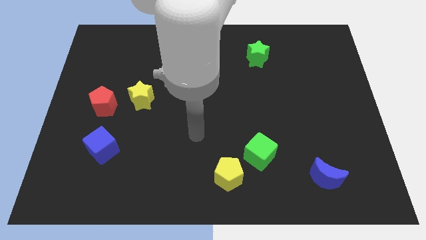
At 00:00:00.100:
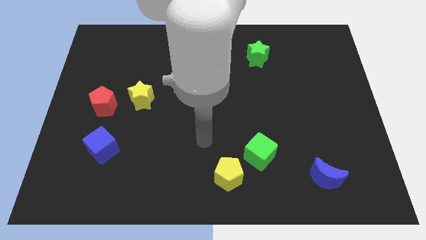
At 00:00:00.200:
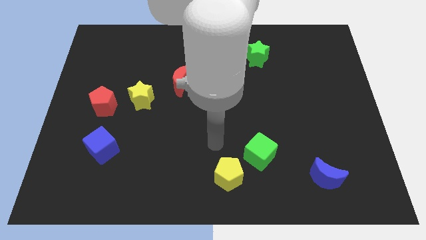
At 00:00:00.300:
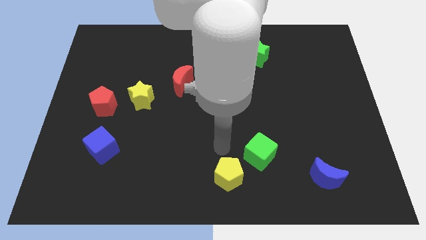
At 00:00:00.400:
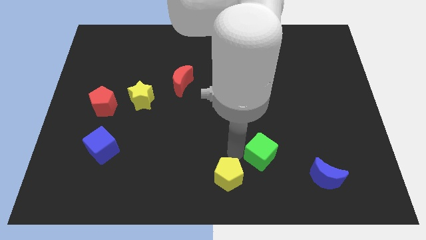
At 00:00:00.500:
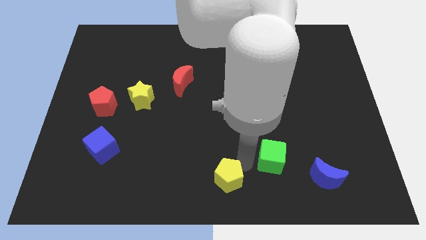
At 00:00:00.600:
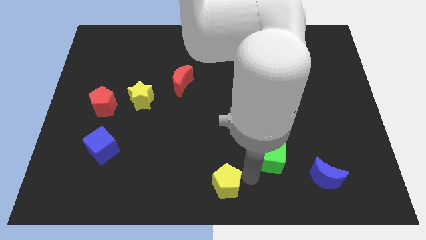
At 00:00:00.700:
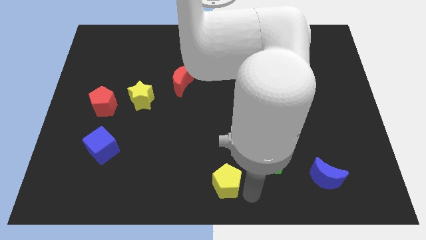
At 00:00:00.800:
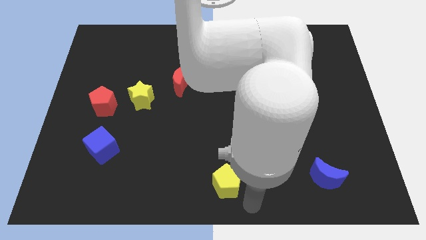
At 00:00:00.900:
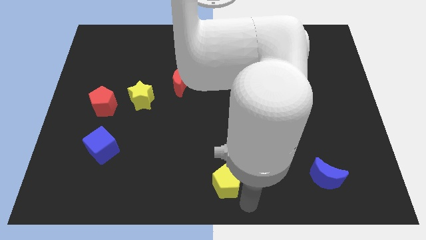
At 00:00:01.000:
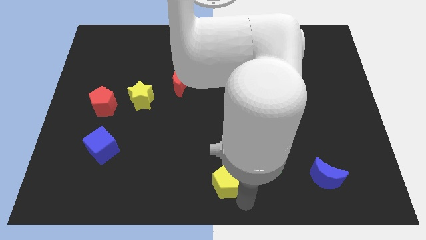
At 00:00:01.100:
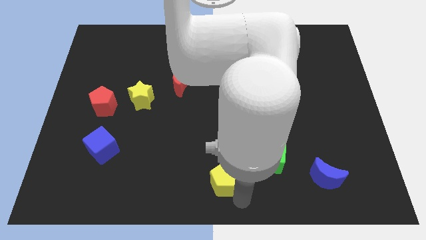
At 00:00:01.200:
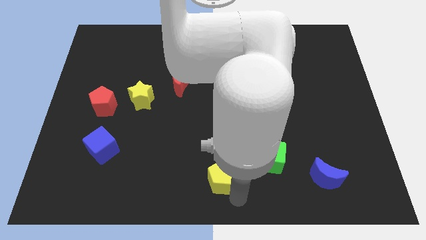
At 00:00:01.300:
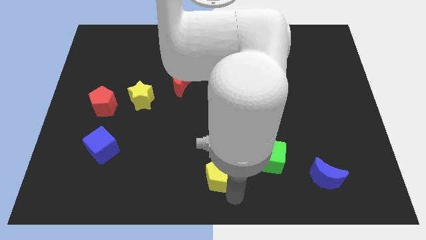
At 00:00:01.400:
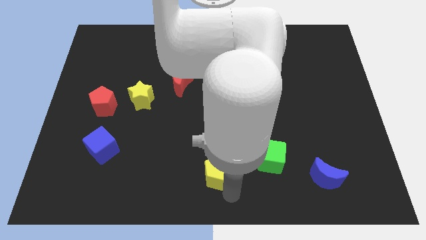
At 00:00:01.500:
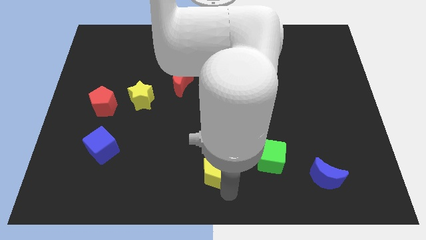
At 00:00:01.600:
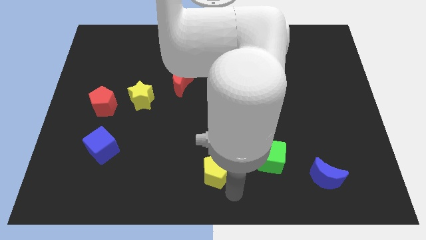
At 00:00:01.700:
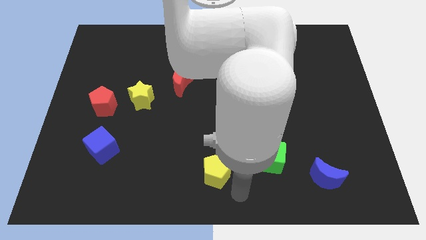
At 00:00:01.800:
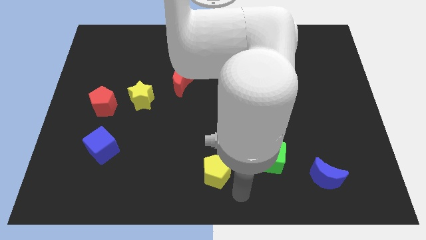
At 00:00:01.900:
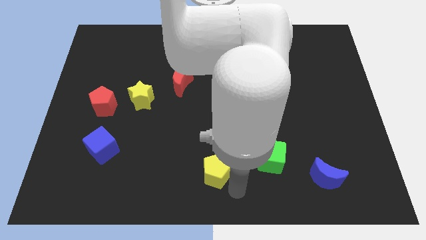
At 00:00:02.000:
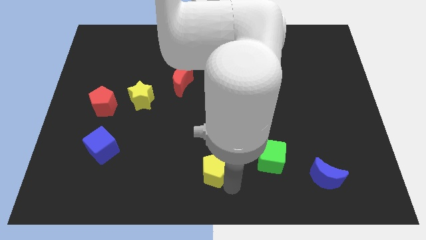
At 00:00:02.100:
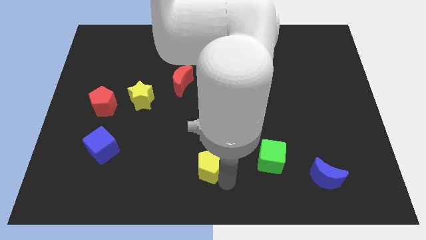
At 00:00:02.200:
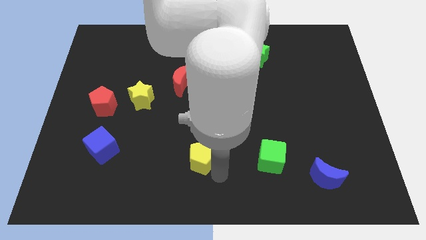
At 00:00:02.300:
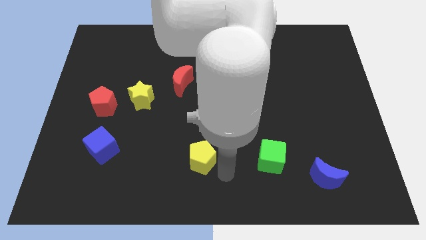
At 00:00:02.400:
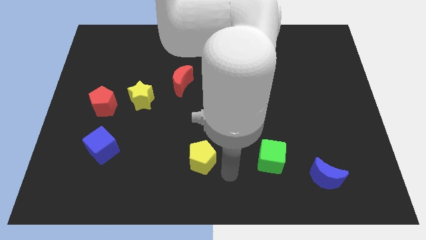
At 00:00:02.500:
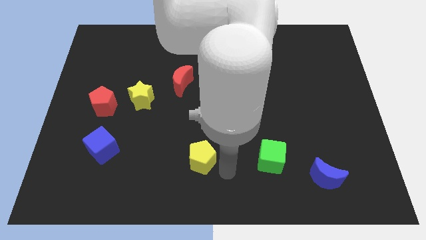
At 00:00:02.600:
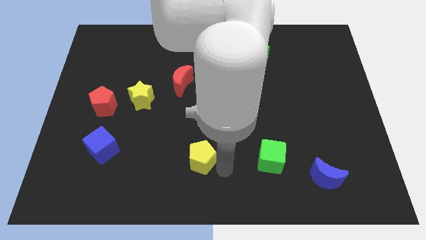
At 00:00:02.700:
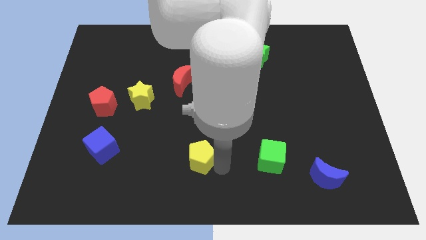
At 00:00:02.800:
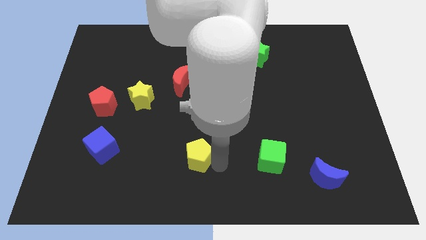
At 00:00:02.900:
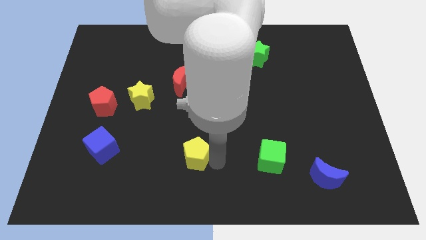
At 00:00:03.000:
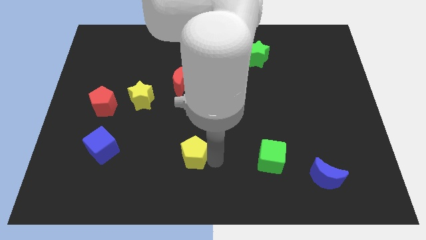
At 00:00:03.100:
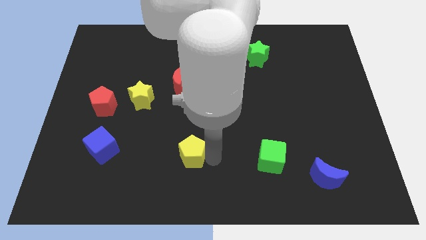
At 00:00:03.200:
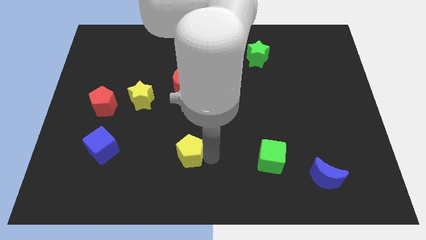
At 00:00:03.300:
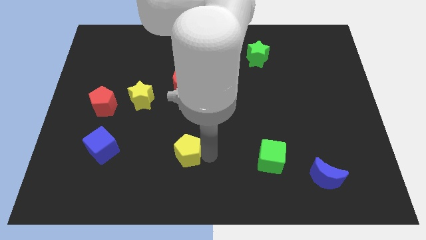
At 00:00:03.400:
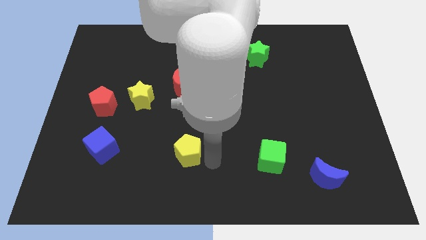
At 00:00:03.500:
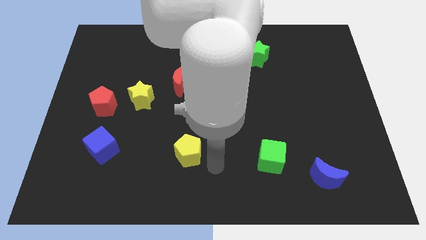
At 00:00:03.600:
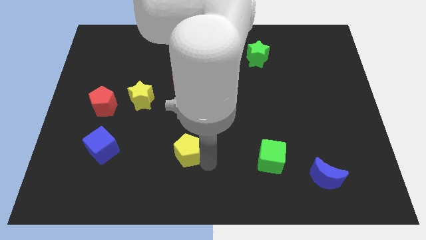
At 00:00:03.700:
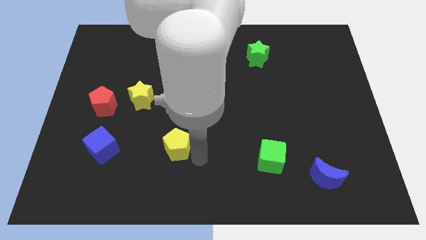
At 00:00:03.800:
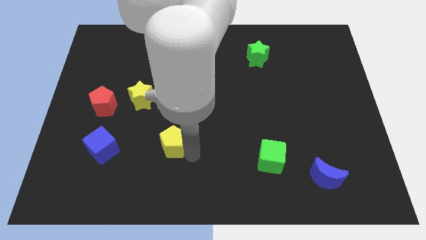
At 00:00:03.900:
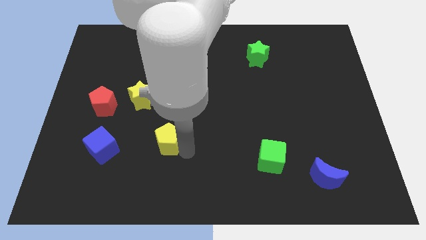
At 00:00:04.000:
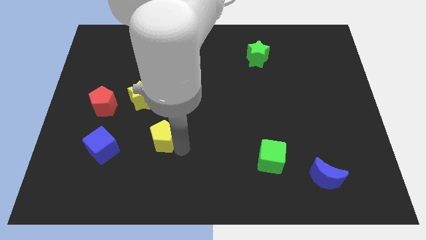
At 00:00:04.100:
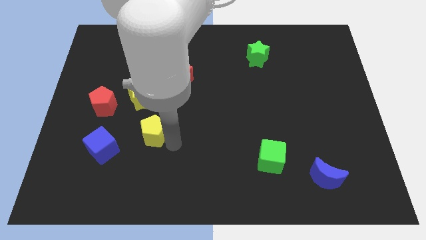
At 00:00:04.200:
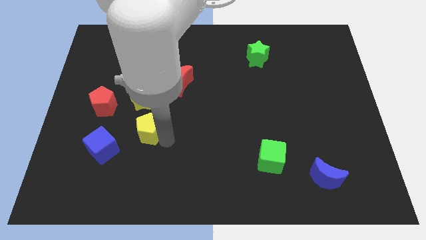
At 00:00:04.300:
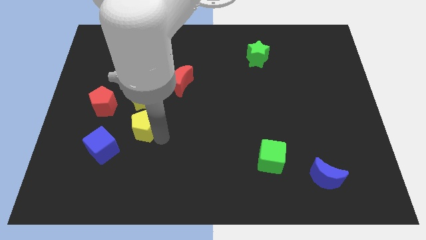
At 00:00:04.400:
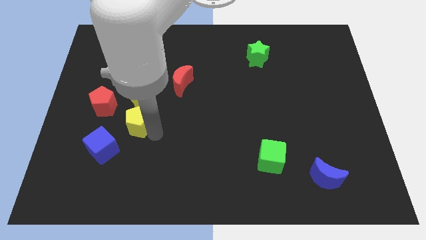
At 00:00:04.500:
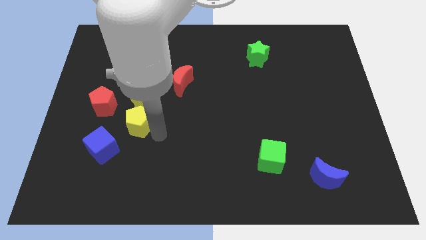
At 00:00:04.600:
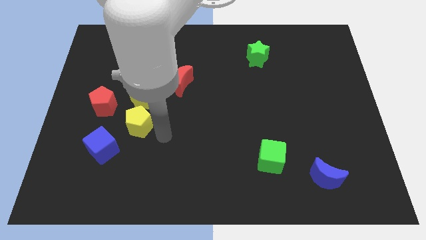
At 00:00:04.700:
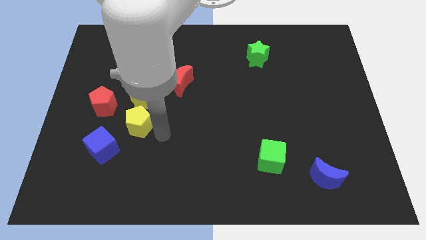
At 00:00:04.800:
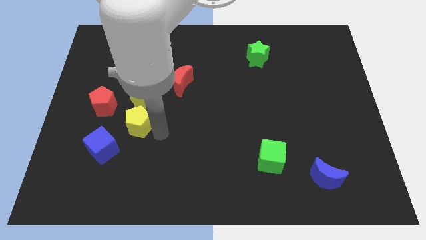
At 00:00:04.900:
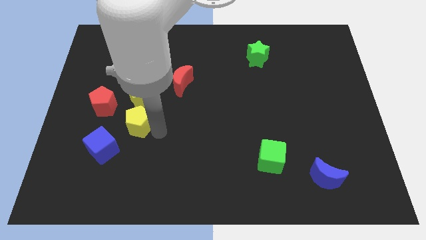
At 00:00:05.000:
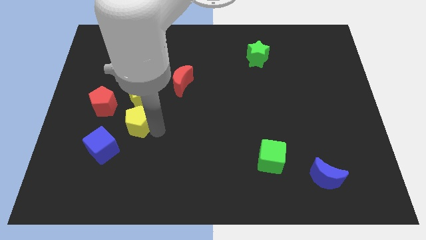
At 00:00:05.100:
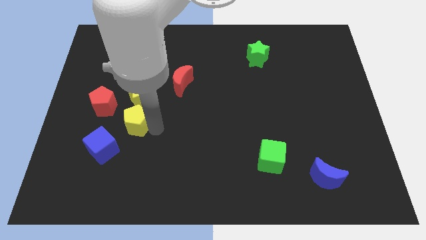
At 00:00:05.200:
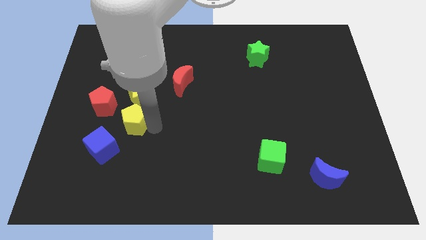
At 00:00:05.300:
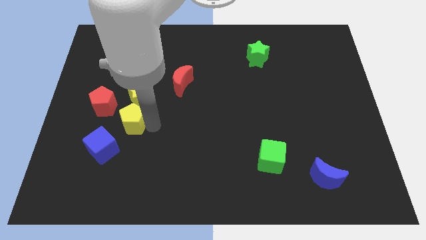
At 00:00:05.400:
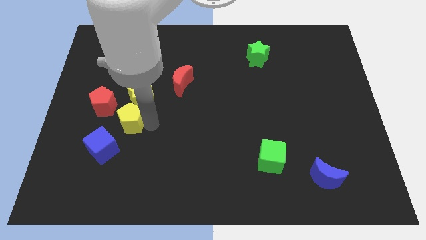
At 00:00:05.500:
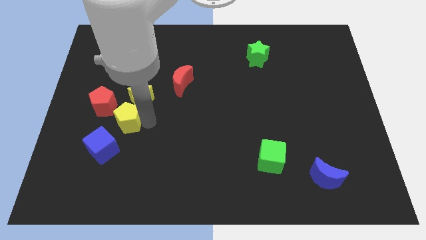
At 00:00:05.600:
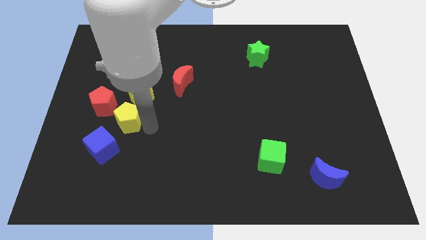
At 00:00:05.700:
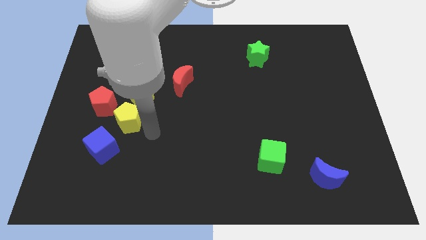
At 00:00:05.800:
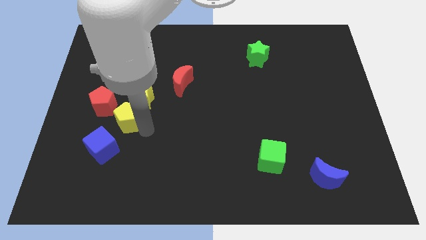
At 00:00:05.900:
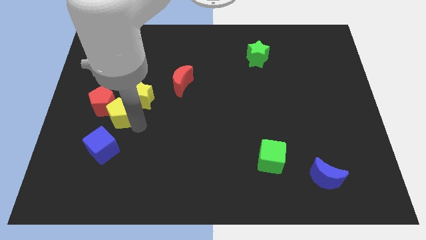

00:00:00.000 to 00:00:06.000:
slide the yellow pentagon close to the red pentagon

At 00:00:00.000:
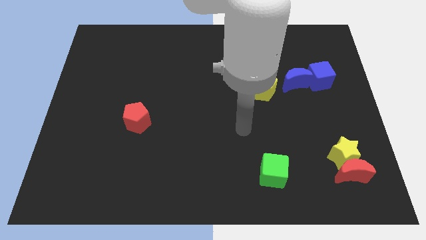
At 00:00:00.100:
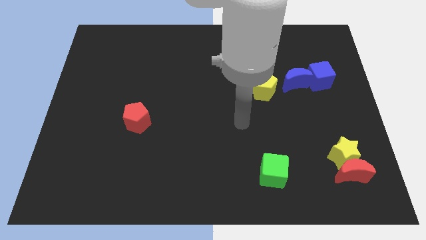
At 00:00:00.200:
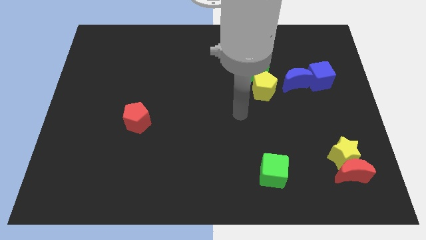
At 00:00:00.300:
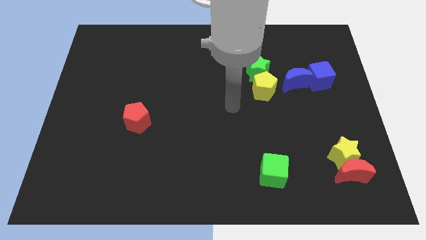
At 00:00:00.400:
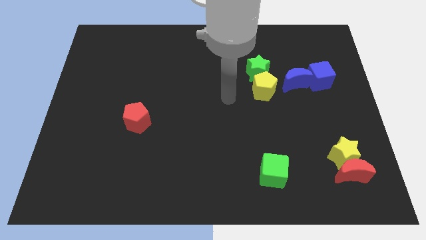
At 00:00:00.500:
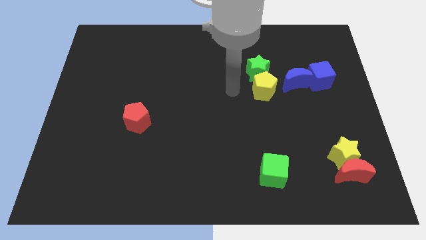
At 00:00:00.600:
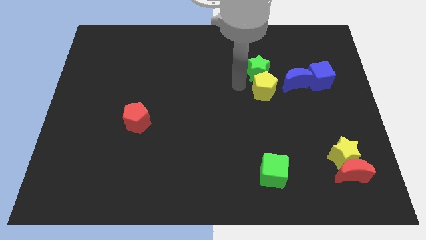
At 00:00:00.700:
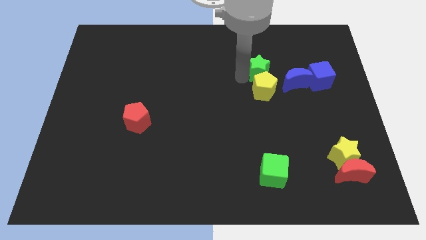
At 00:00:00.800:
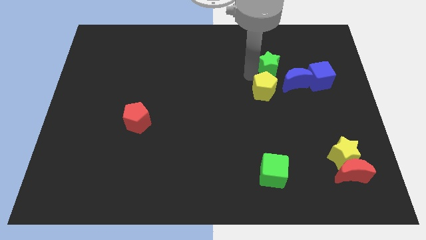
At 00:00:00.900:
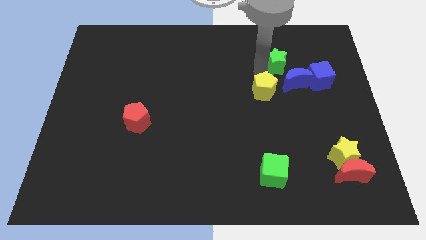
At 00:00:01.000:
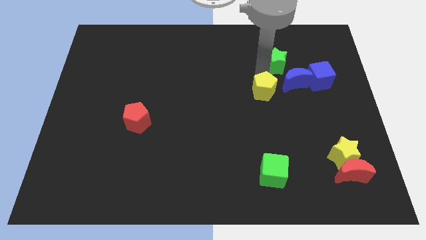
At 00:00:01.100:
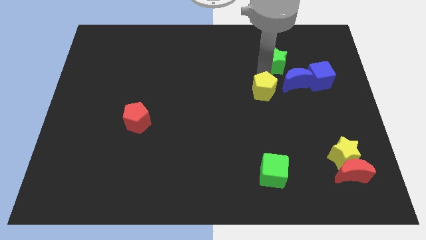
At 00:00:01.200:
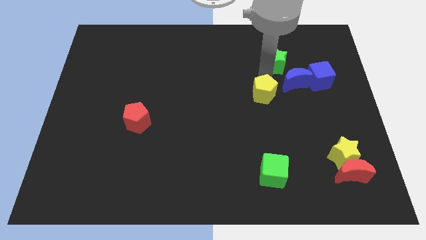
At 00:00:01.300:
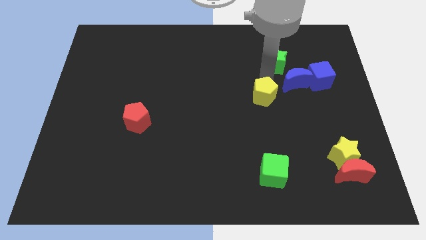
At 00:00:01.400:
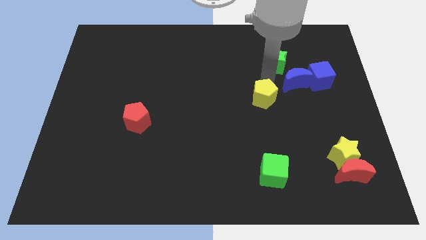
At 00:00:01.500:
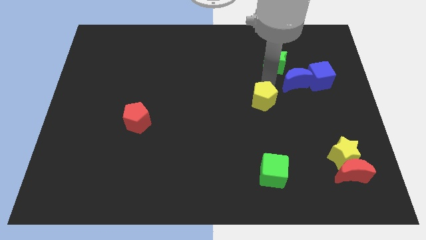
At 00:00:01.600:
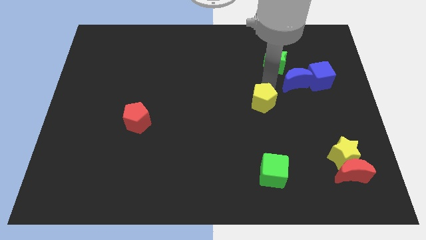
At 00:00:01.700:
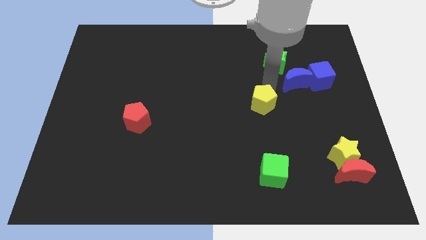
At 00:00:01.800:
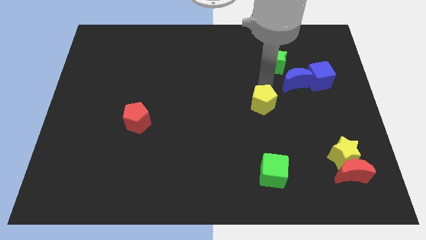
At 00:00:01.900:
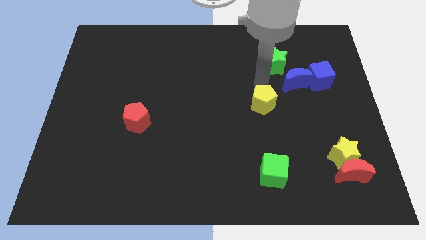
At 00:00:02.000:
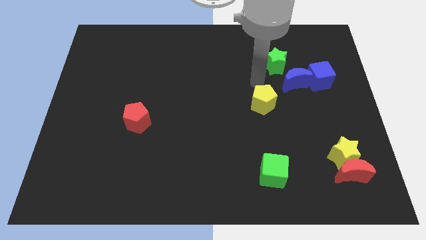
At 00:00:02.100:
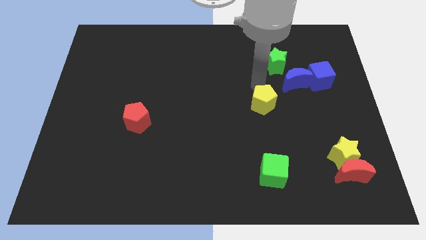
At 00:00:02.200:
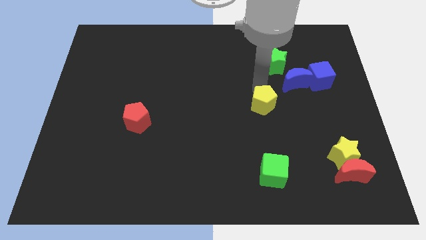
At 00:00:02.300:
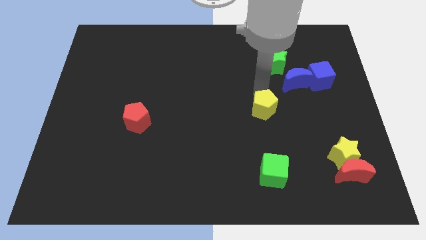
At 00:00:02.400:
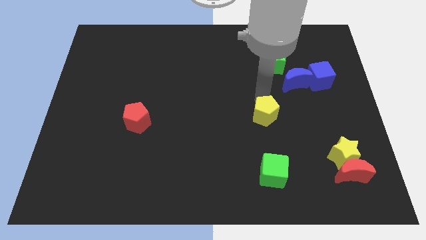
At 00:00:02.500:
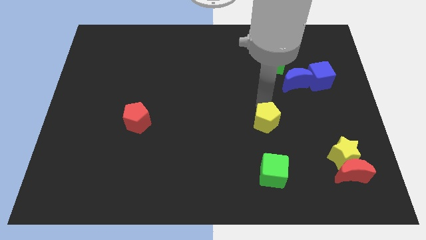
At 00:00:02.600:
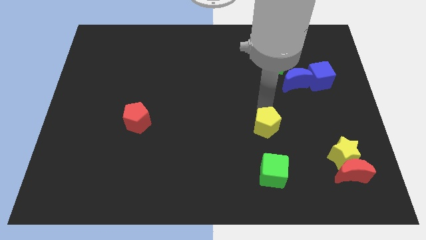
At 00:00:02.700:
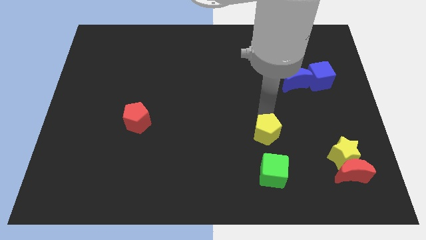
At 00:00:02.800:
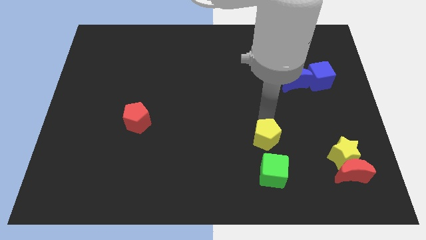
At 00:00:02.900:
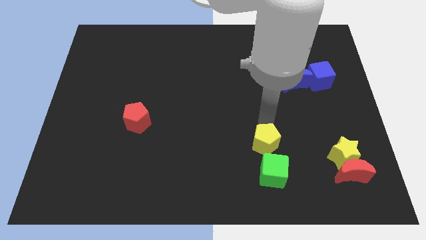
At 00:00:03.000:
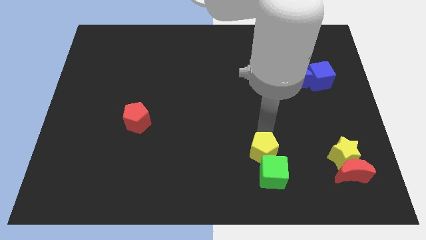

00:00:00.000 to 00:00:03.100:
push the yellow pentagon next to the green cube
